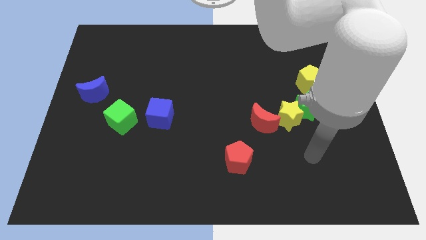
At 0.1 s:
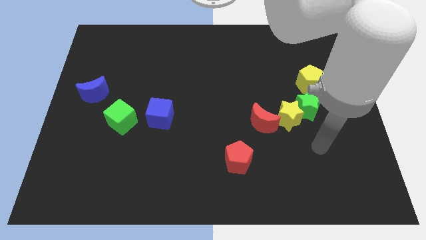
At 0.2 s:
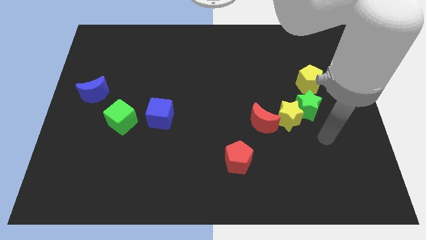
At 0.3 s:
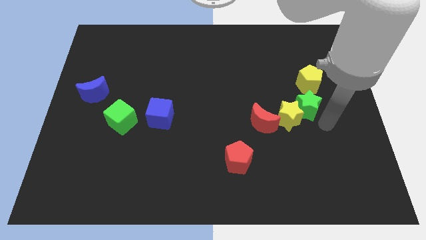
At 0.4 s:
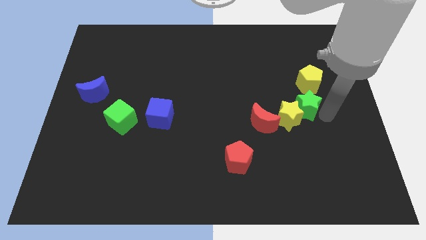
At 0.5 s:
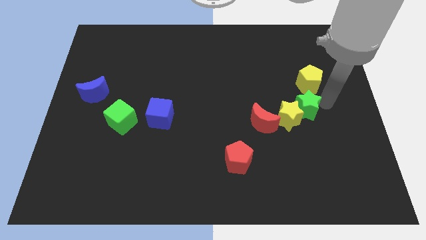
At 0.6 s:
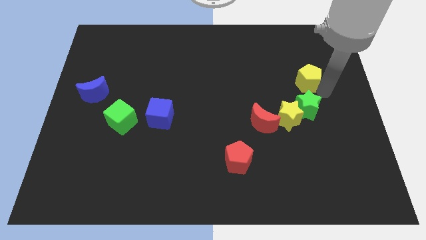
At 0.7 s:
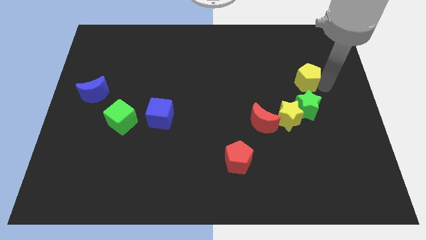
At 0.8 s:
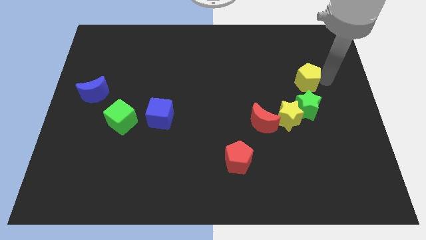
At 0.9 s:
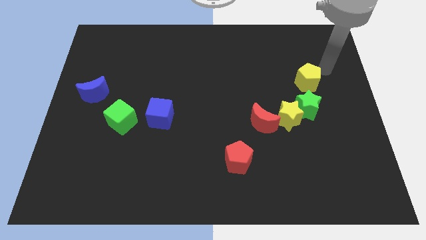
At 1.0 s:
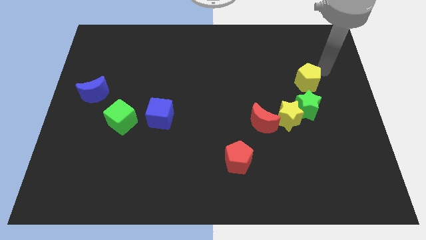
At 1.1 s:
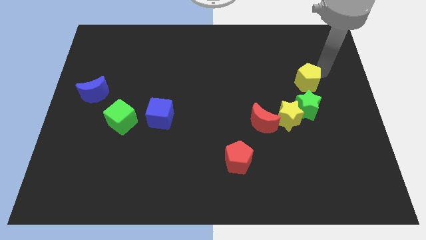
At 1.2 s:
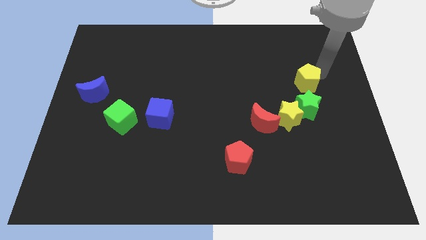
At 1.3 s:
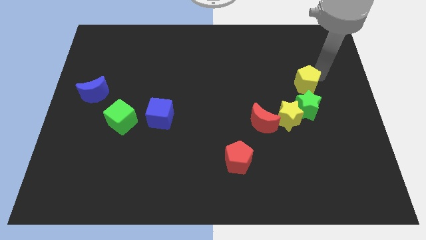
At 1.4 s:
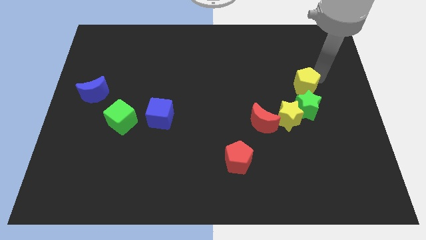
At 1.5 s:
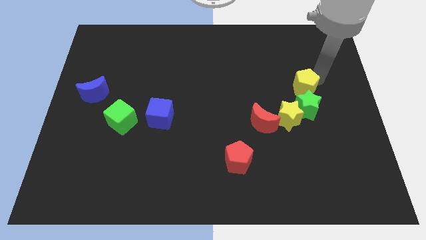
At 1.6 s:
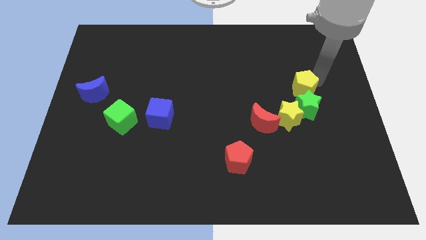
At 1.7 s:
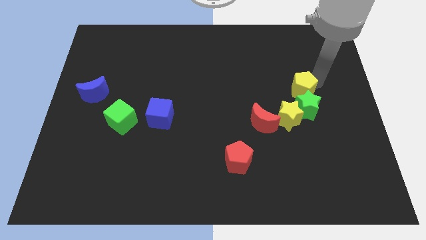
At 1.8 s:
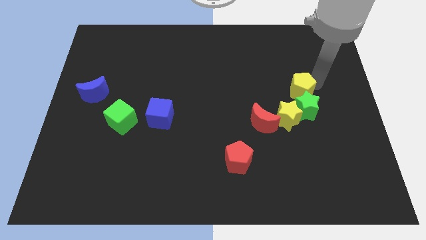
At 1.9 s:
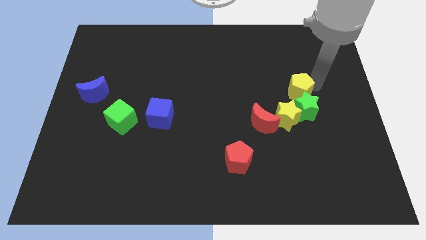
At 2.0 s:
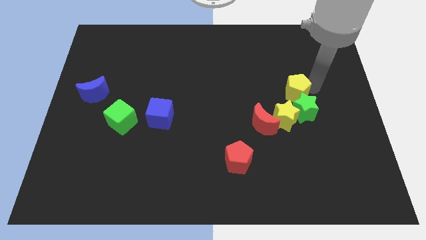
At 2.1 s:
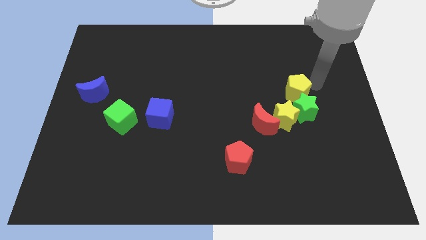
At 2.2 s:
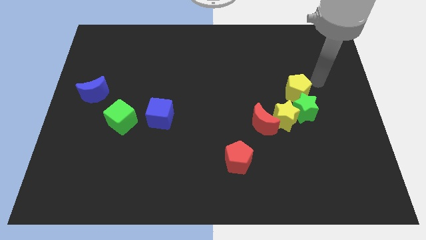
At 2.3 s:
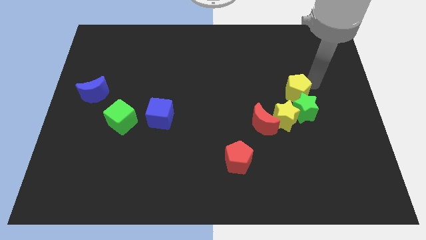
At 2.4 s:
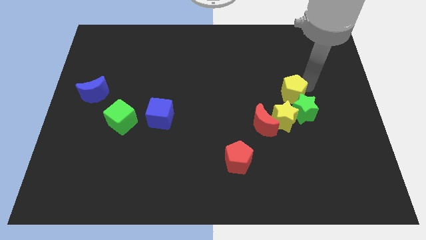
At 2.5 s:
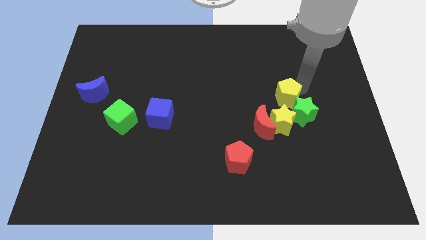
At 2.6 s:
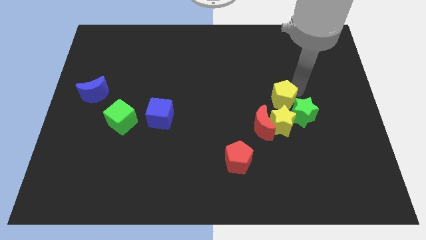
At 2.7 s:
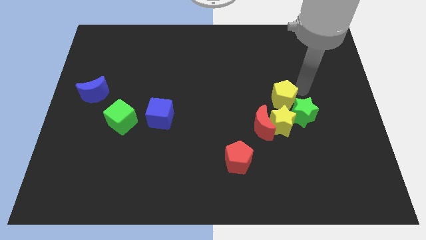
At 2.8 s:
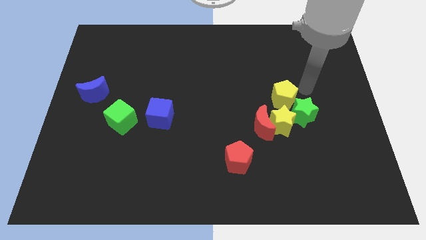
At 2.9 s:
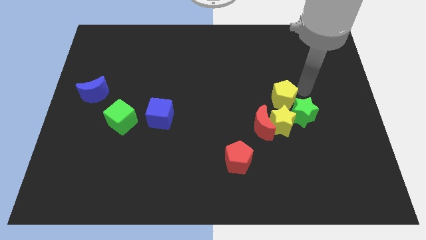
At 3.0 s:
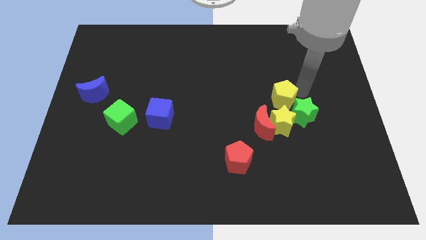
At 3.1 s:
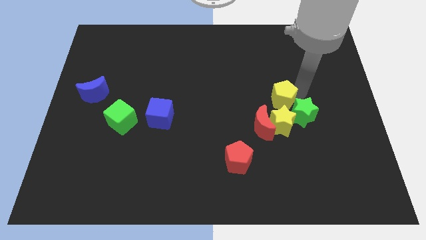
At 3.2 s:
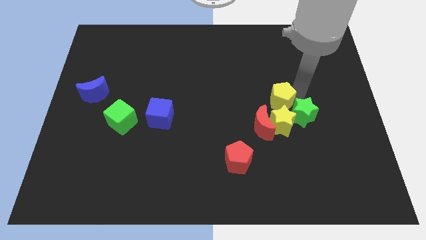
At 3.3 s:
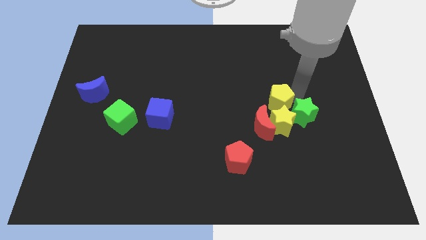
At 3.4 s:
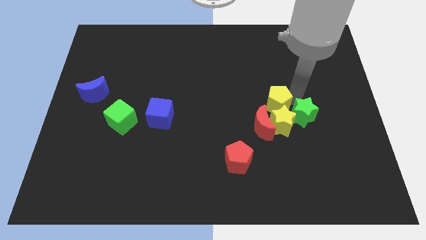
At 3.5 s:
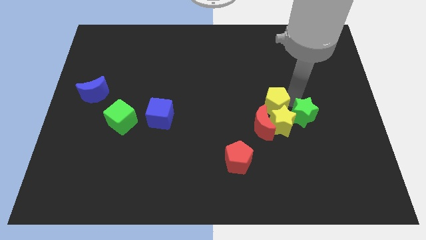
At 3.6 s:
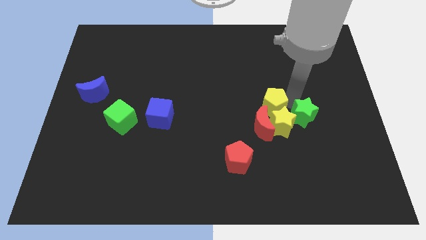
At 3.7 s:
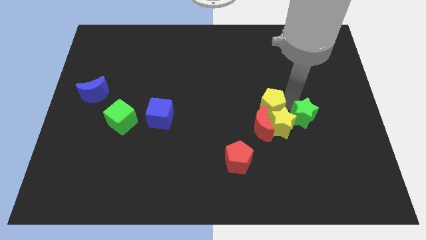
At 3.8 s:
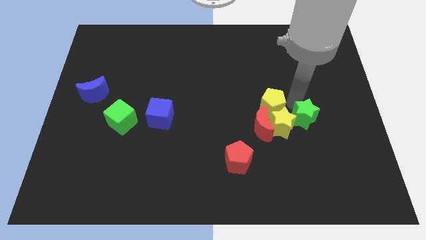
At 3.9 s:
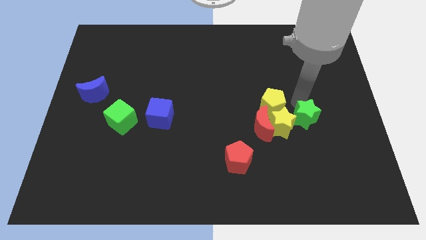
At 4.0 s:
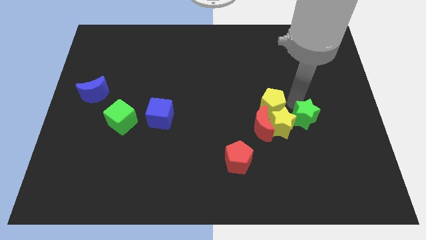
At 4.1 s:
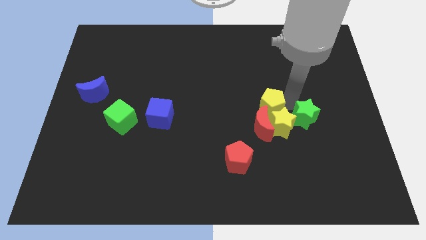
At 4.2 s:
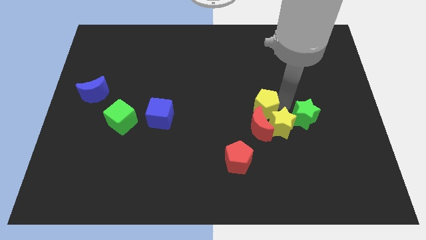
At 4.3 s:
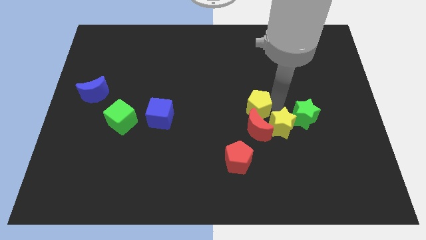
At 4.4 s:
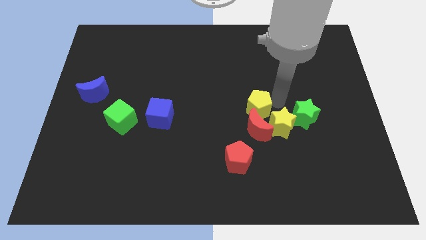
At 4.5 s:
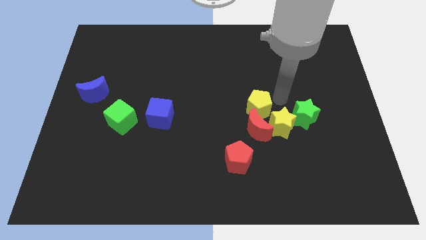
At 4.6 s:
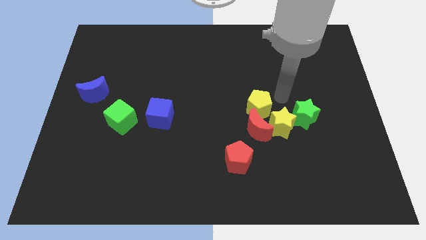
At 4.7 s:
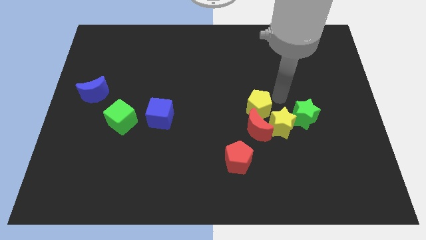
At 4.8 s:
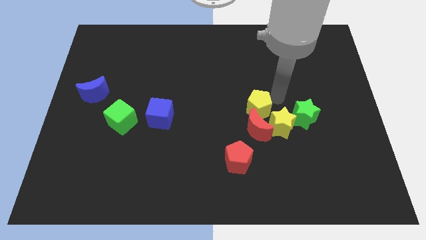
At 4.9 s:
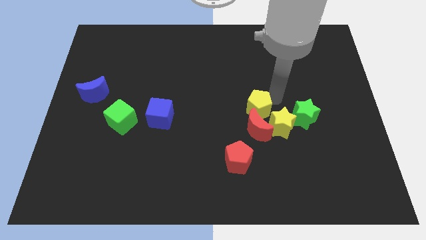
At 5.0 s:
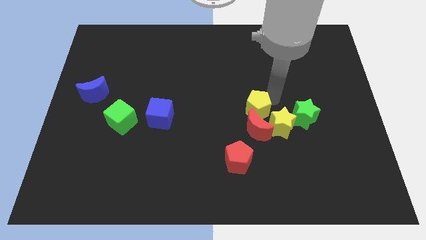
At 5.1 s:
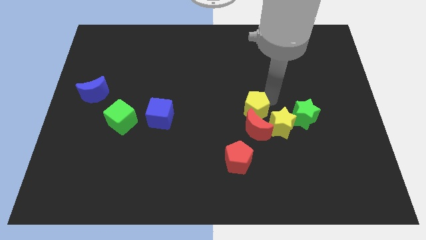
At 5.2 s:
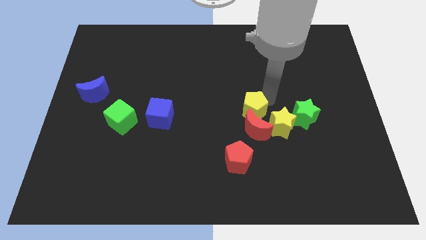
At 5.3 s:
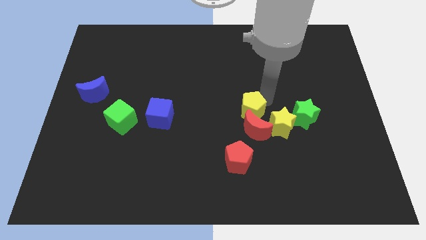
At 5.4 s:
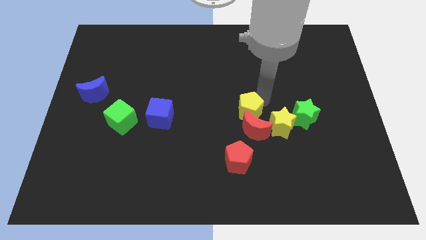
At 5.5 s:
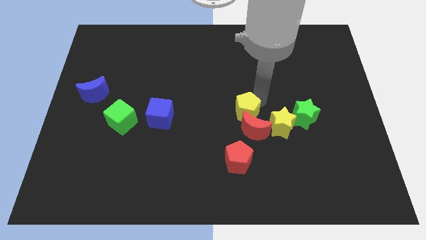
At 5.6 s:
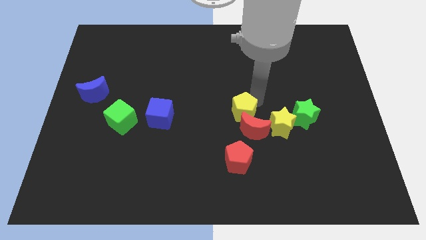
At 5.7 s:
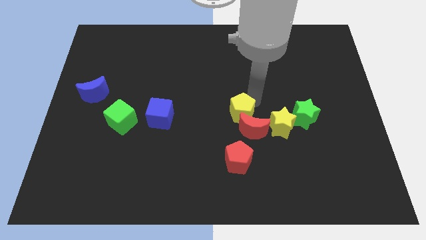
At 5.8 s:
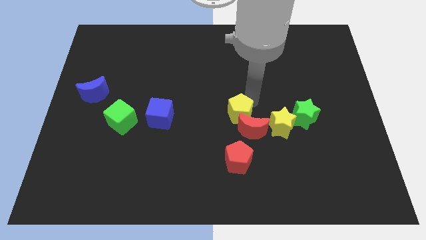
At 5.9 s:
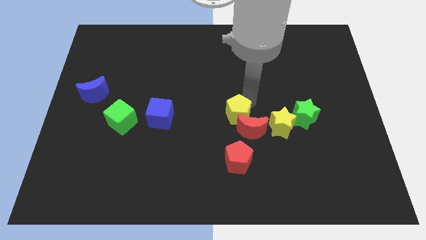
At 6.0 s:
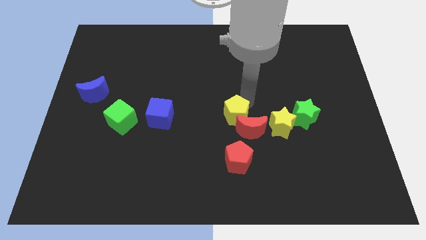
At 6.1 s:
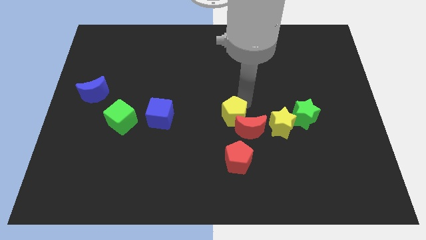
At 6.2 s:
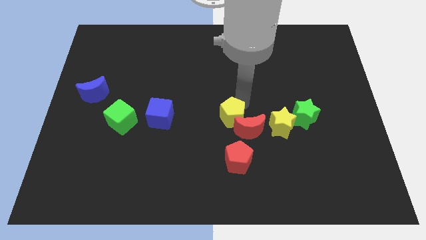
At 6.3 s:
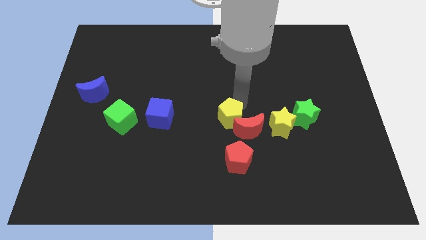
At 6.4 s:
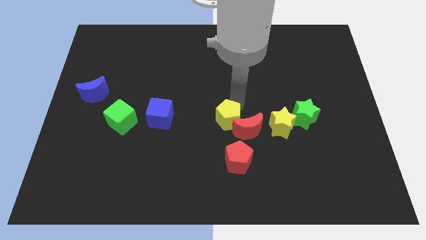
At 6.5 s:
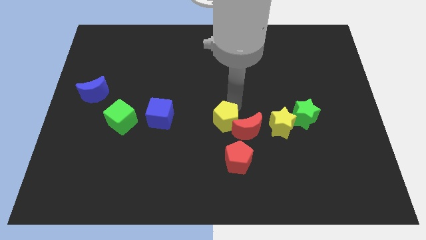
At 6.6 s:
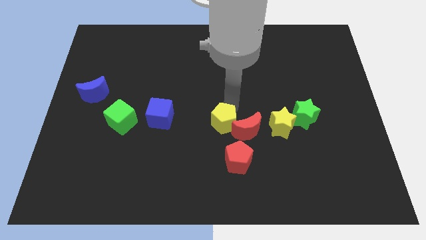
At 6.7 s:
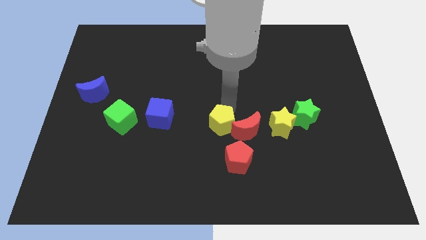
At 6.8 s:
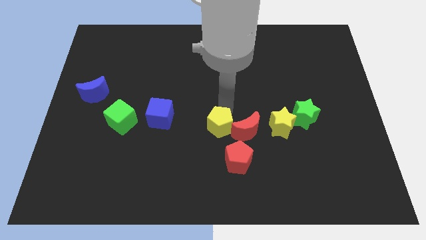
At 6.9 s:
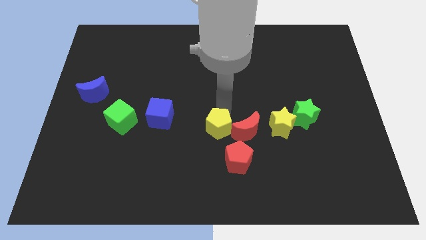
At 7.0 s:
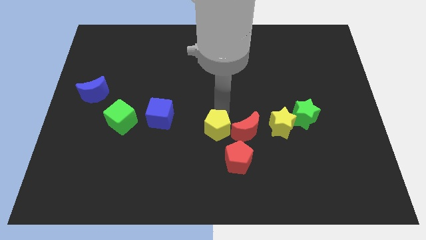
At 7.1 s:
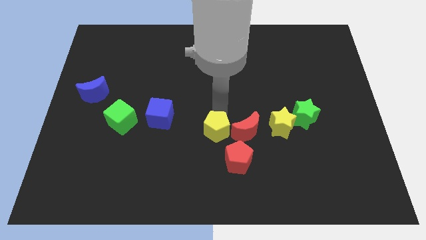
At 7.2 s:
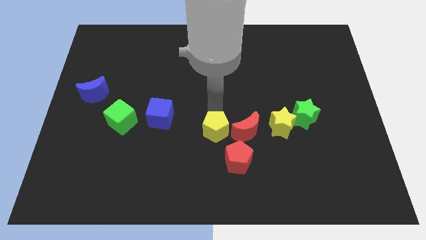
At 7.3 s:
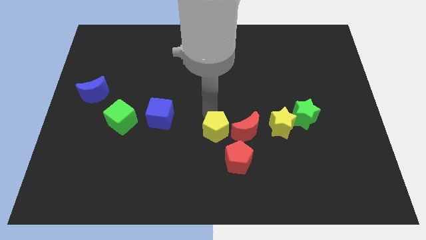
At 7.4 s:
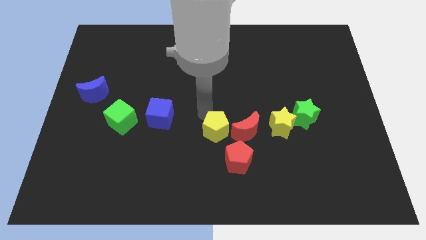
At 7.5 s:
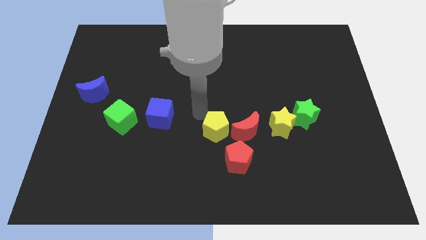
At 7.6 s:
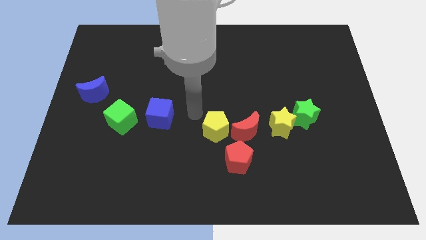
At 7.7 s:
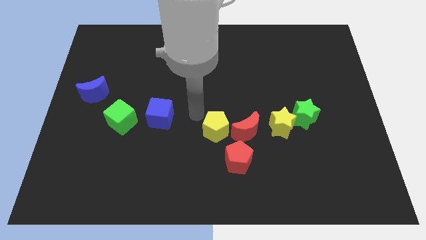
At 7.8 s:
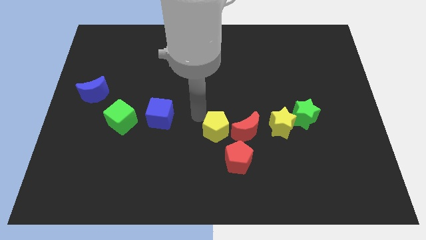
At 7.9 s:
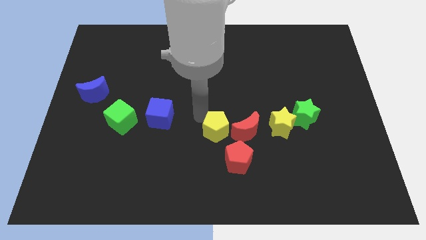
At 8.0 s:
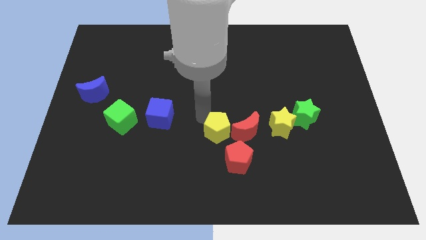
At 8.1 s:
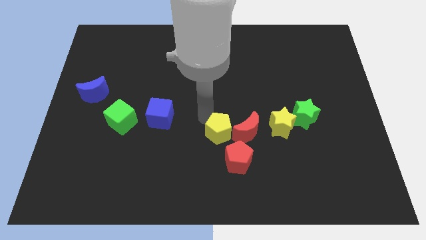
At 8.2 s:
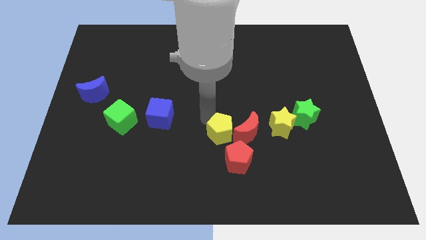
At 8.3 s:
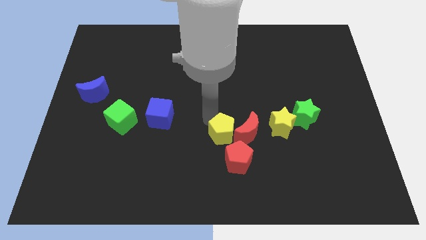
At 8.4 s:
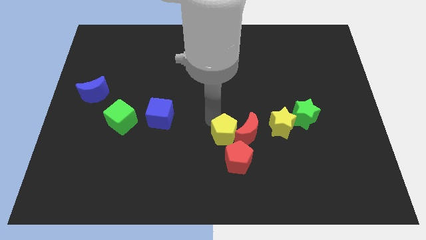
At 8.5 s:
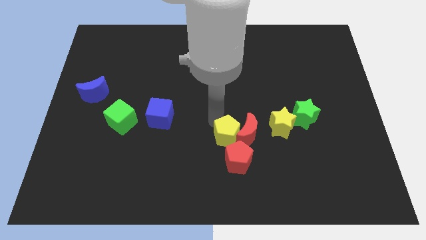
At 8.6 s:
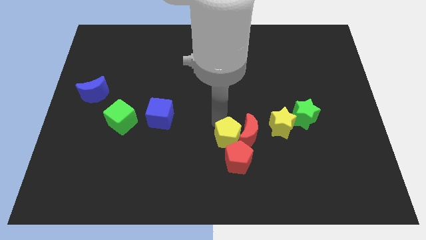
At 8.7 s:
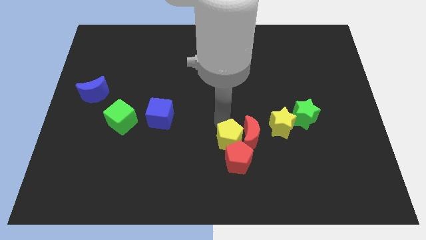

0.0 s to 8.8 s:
put the yellow pentagon close to the red pentagon
